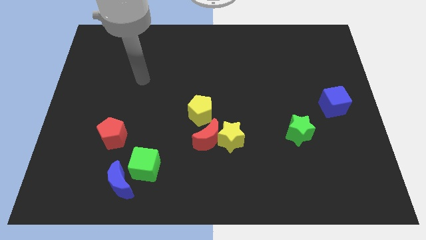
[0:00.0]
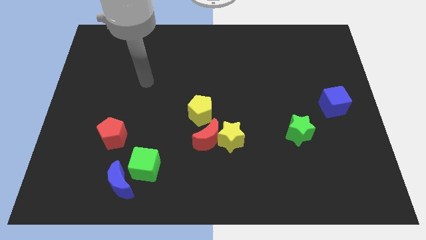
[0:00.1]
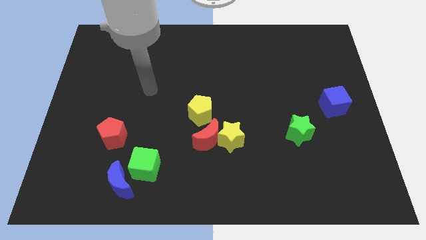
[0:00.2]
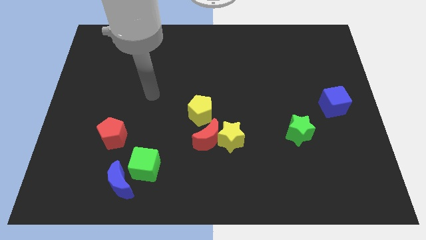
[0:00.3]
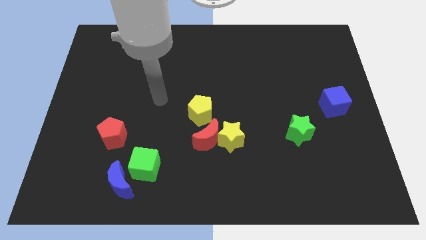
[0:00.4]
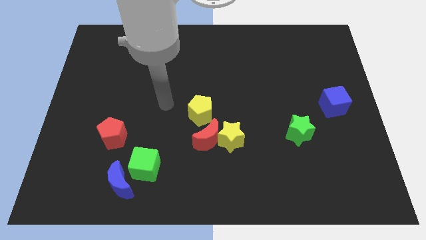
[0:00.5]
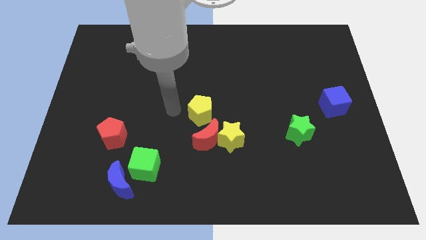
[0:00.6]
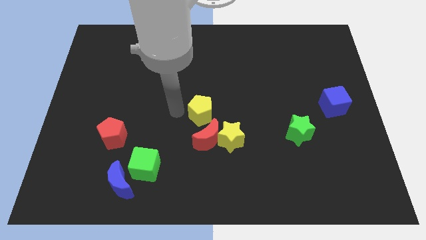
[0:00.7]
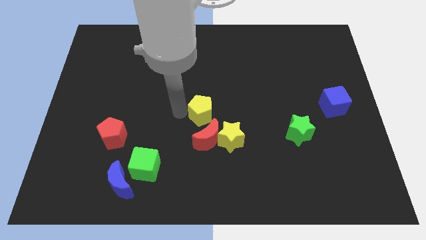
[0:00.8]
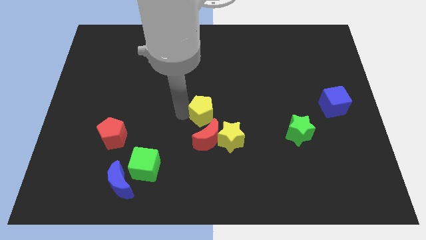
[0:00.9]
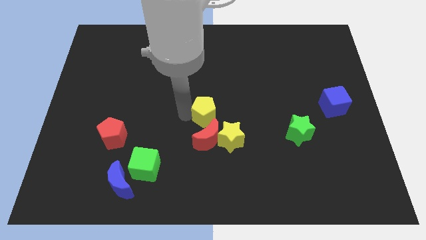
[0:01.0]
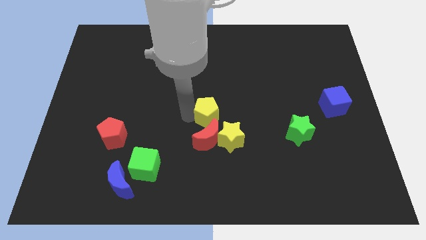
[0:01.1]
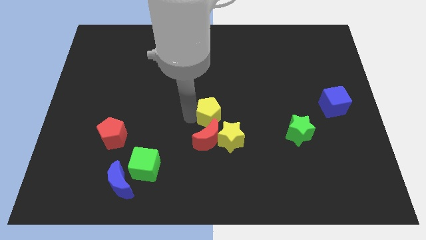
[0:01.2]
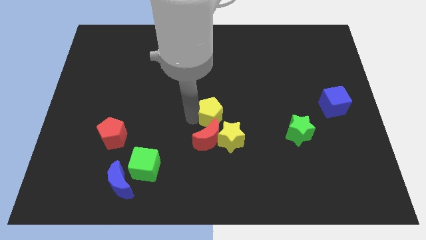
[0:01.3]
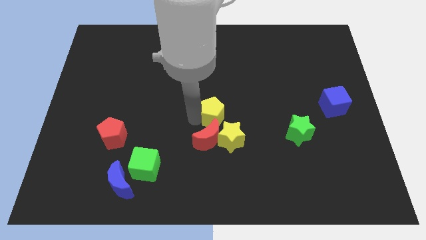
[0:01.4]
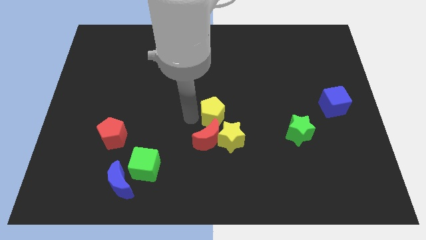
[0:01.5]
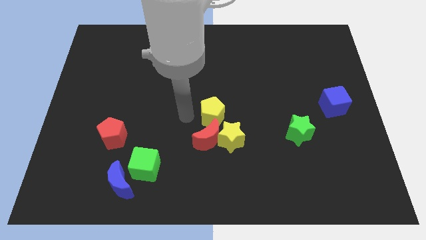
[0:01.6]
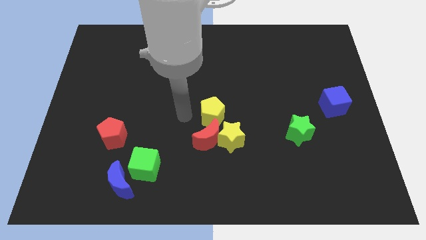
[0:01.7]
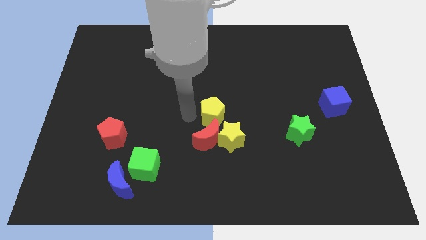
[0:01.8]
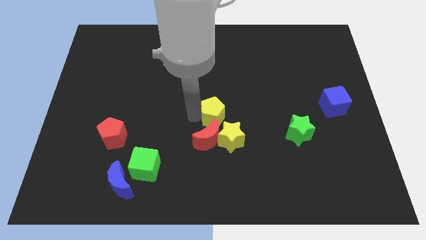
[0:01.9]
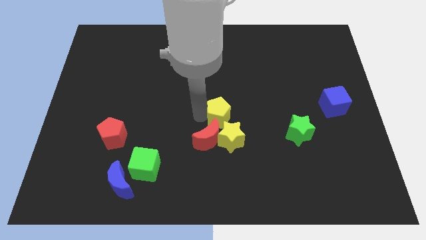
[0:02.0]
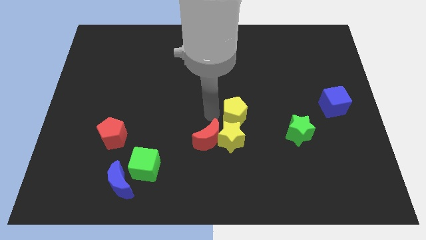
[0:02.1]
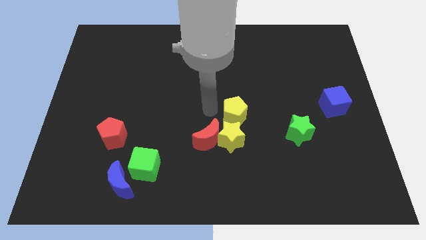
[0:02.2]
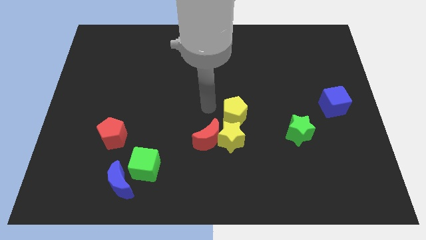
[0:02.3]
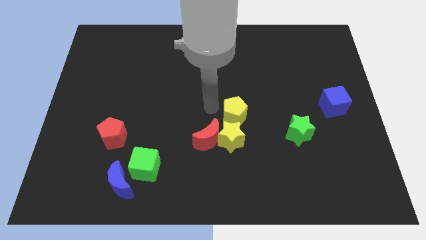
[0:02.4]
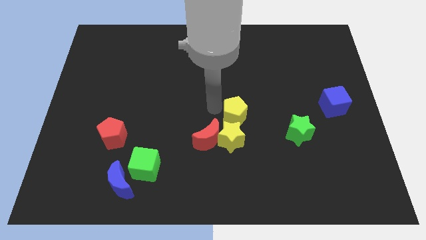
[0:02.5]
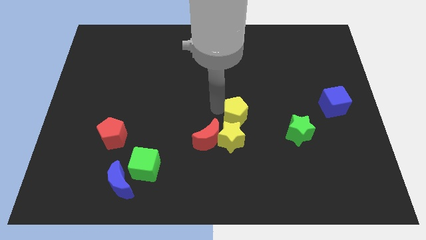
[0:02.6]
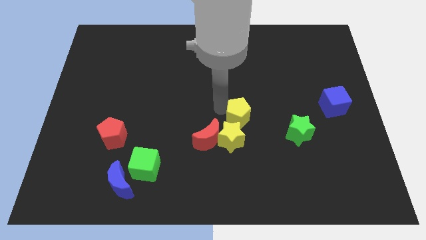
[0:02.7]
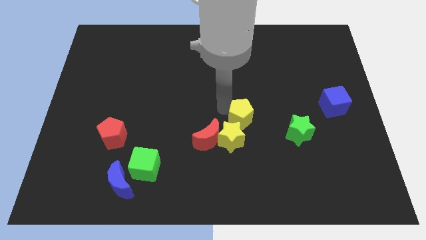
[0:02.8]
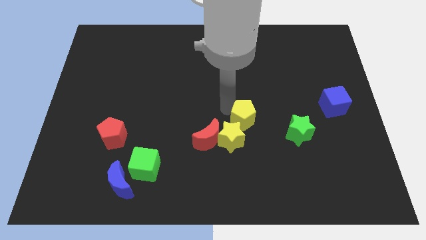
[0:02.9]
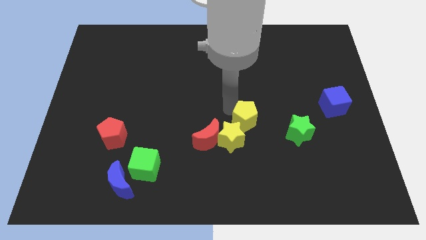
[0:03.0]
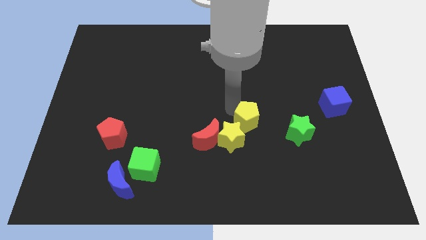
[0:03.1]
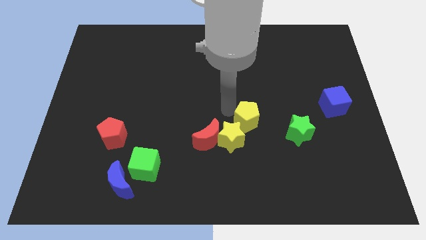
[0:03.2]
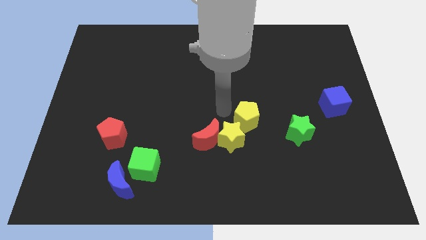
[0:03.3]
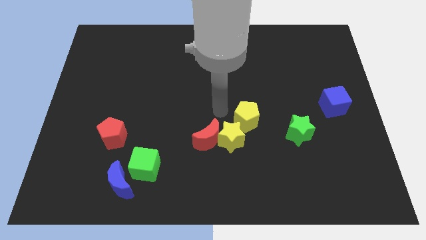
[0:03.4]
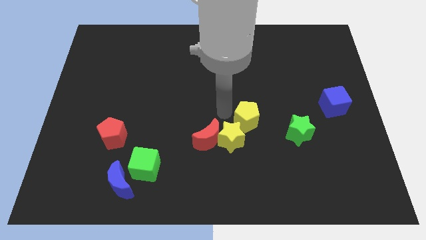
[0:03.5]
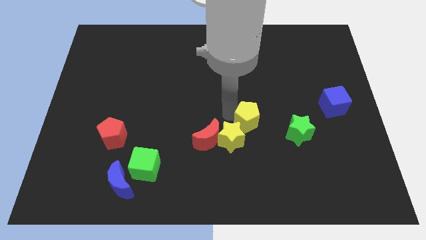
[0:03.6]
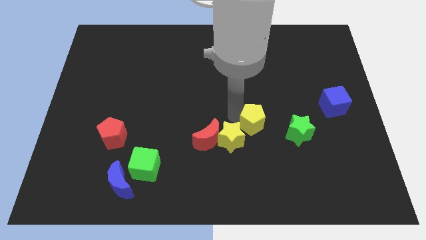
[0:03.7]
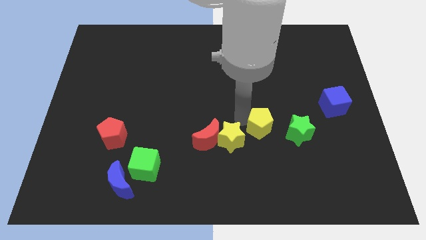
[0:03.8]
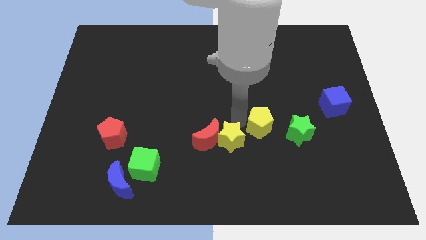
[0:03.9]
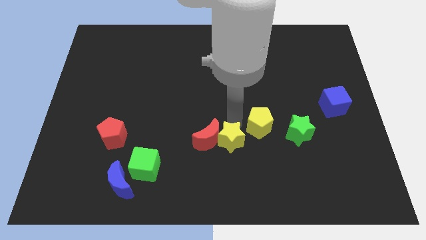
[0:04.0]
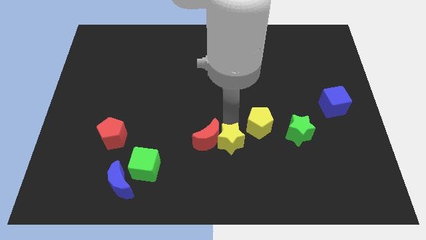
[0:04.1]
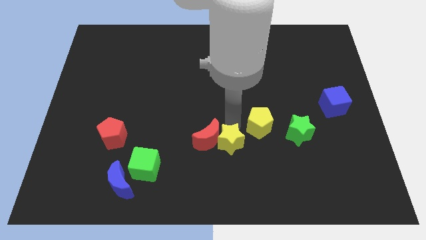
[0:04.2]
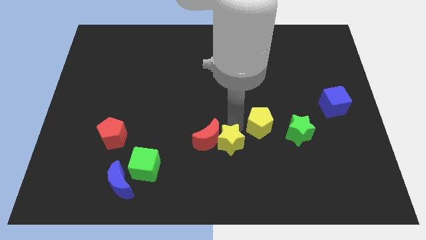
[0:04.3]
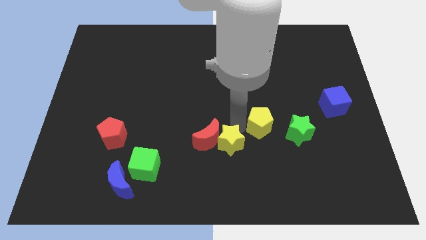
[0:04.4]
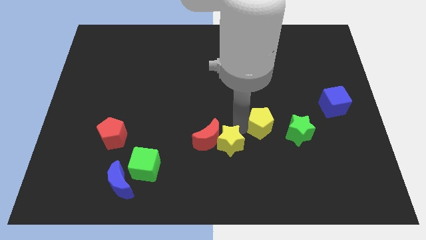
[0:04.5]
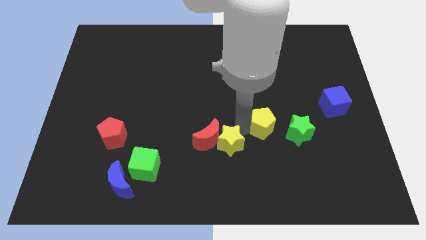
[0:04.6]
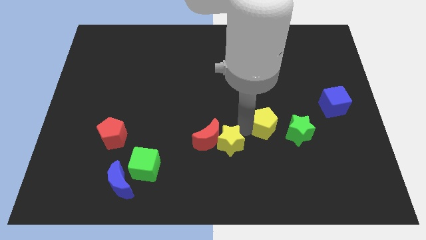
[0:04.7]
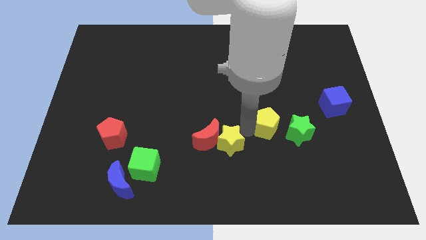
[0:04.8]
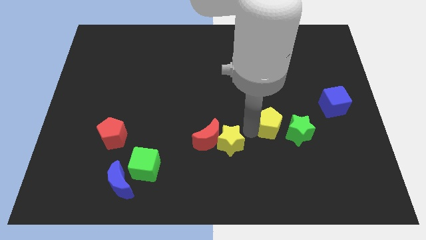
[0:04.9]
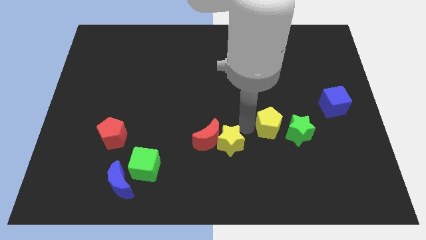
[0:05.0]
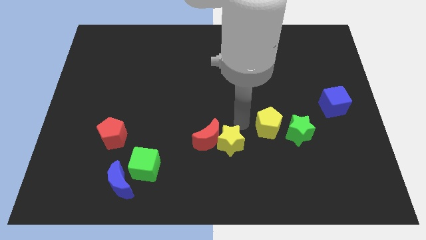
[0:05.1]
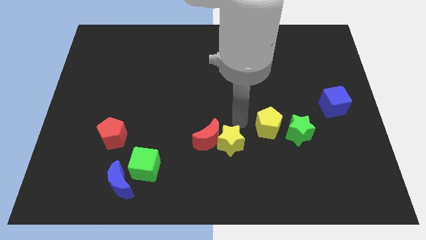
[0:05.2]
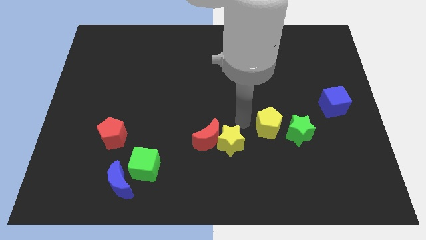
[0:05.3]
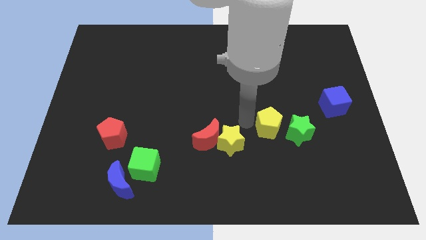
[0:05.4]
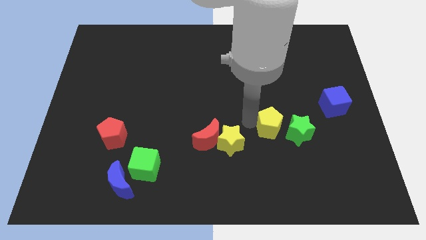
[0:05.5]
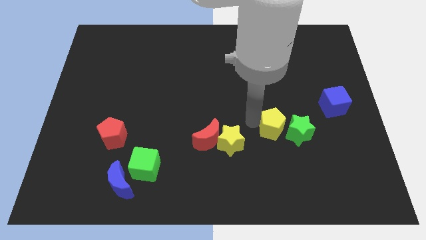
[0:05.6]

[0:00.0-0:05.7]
move the yellow pentagon close to the green star

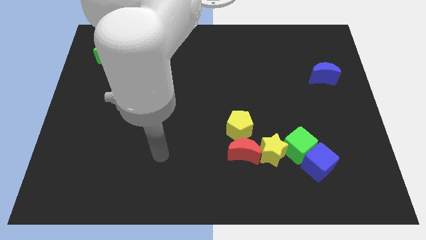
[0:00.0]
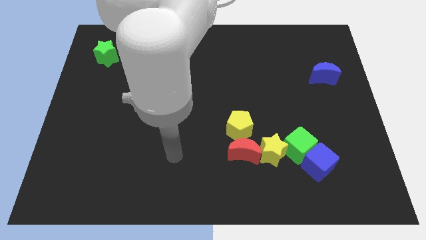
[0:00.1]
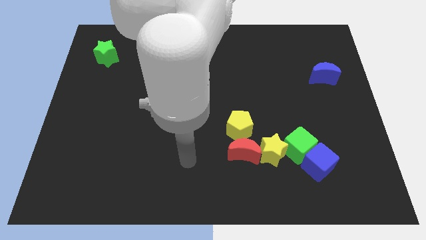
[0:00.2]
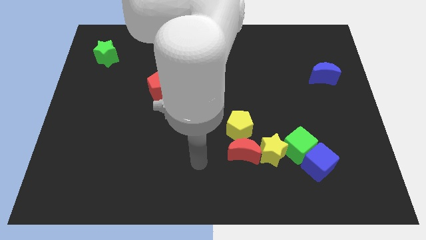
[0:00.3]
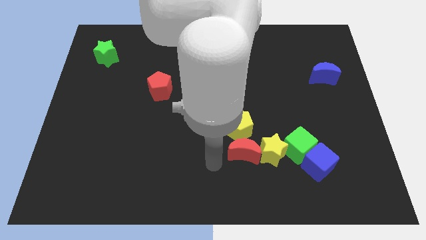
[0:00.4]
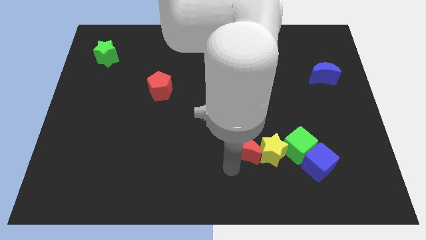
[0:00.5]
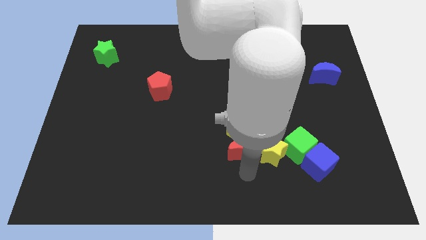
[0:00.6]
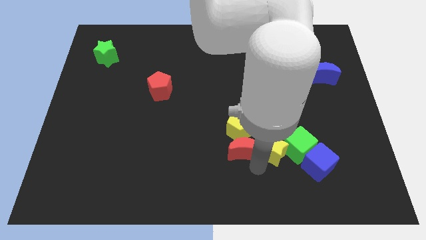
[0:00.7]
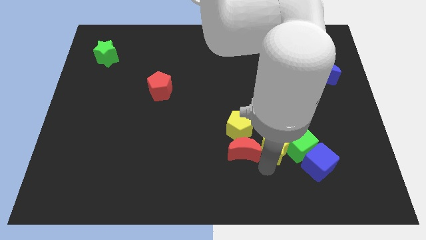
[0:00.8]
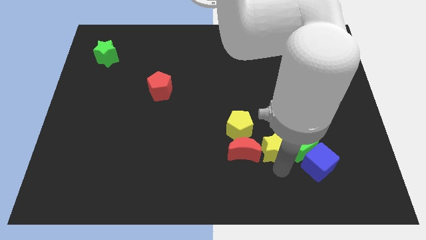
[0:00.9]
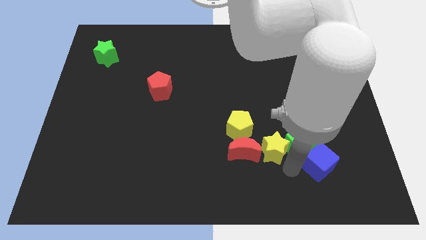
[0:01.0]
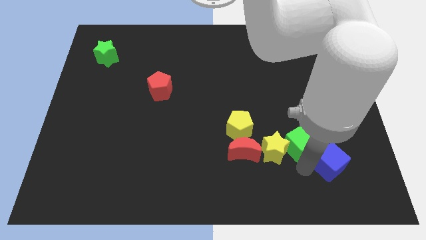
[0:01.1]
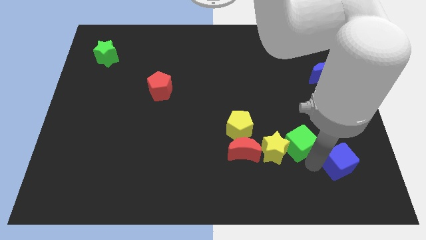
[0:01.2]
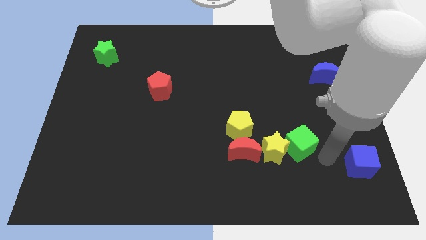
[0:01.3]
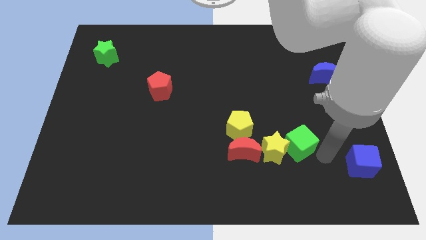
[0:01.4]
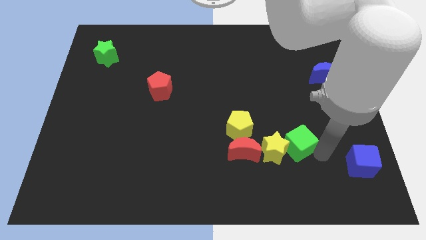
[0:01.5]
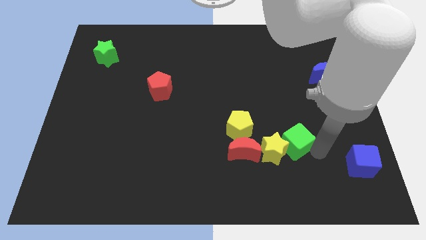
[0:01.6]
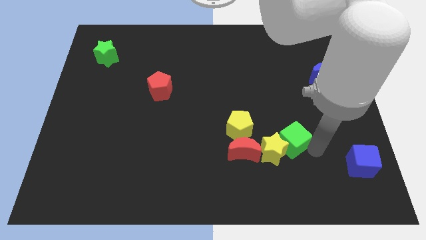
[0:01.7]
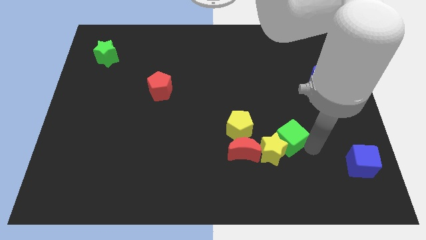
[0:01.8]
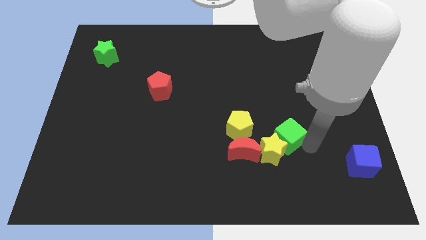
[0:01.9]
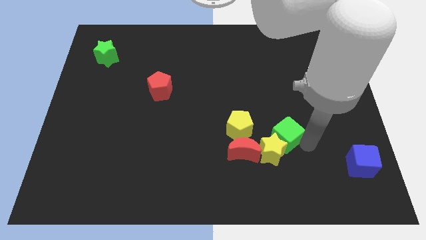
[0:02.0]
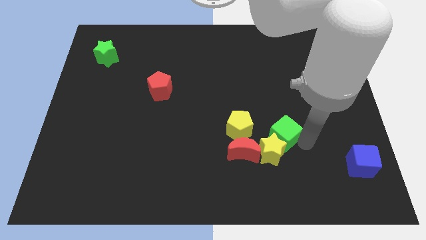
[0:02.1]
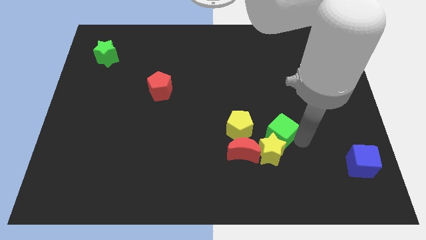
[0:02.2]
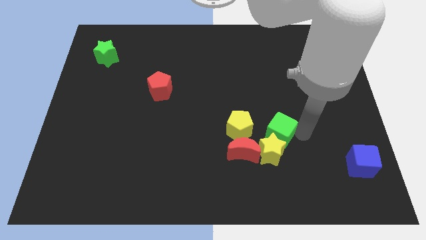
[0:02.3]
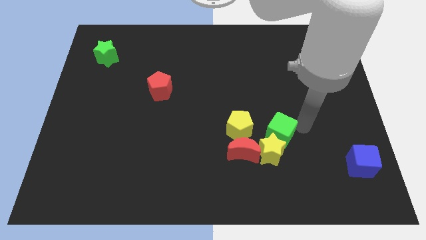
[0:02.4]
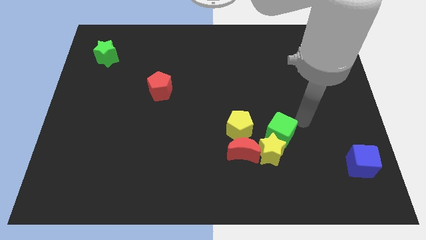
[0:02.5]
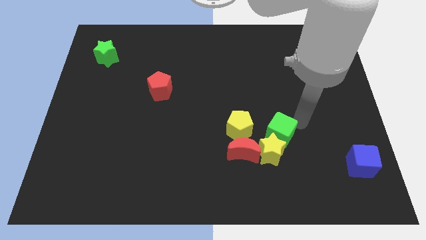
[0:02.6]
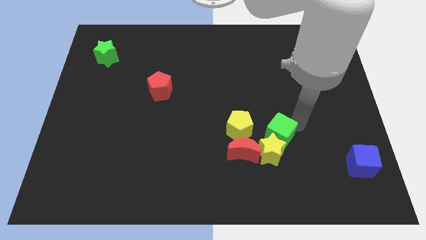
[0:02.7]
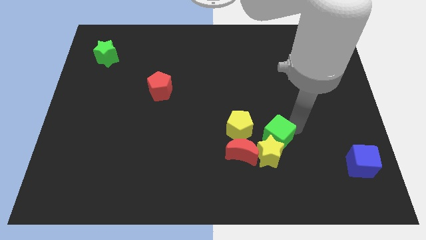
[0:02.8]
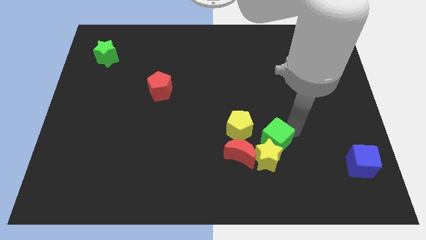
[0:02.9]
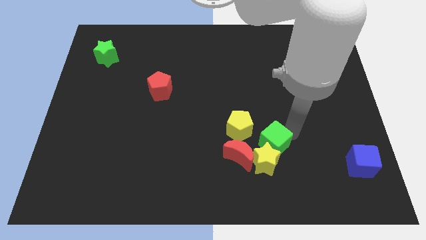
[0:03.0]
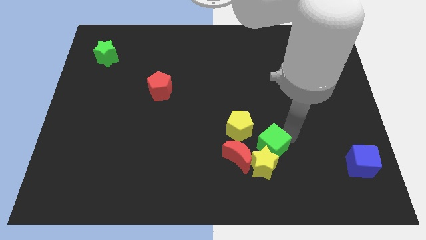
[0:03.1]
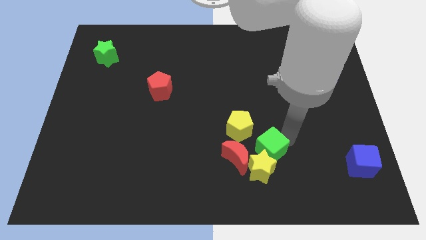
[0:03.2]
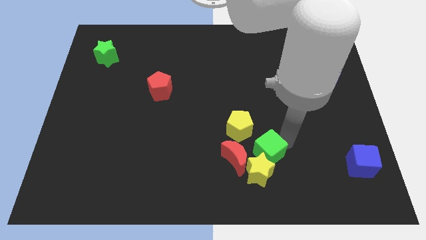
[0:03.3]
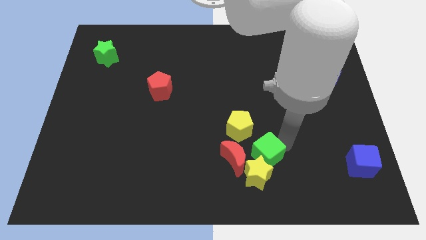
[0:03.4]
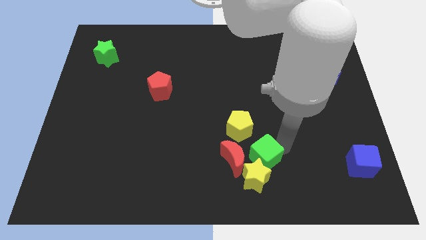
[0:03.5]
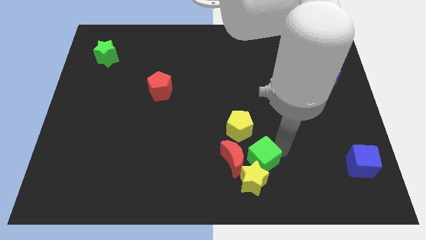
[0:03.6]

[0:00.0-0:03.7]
move the green cube towards the red moon
